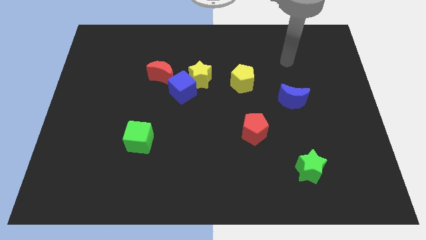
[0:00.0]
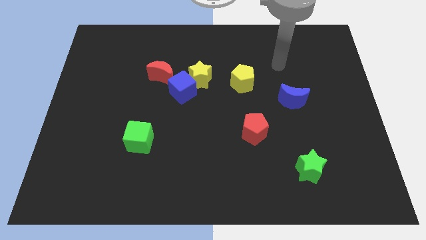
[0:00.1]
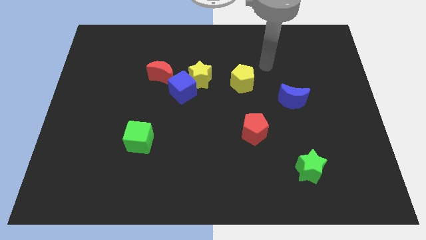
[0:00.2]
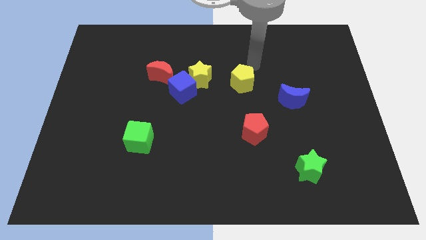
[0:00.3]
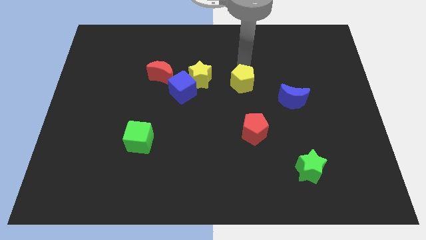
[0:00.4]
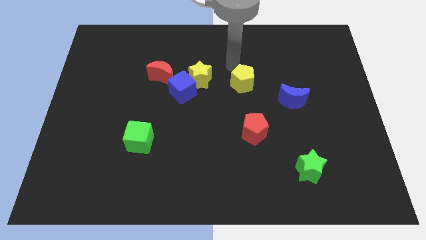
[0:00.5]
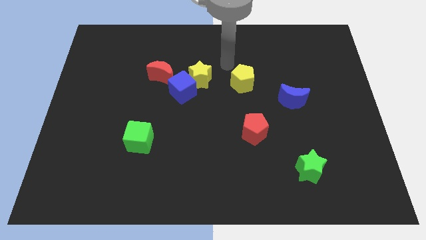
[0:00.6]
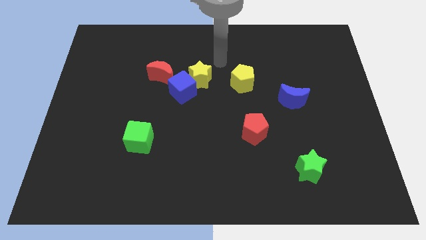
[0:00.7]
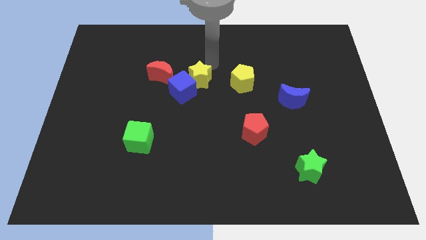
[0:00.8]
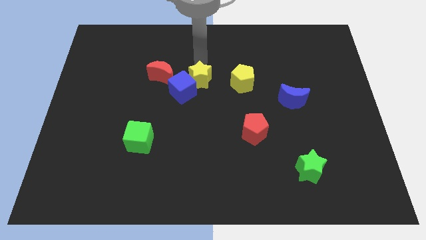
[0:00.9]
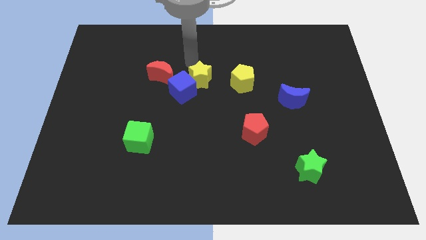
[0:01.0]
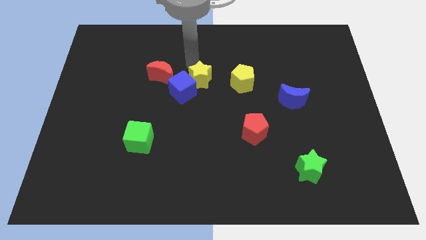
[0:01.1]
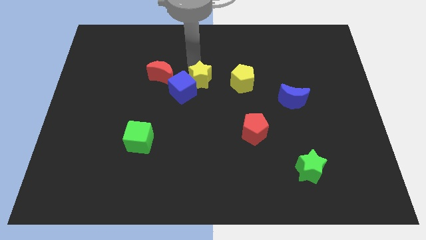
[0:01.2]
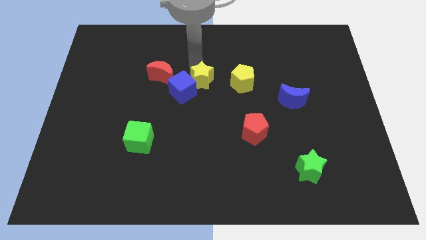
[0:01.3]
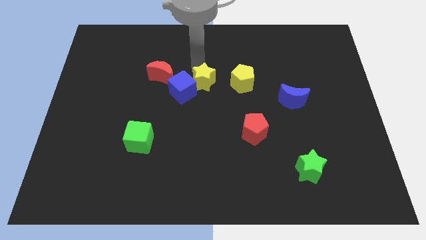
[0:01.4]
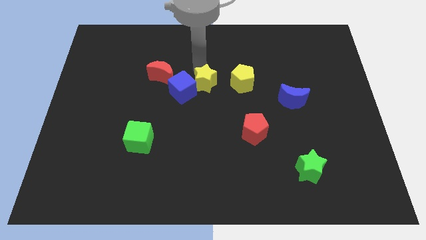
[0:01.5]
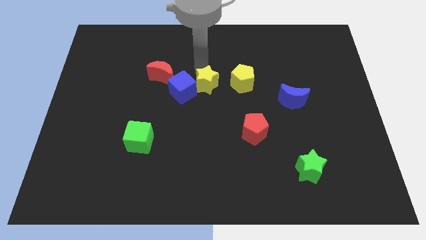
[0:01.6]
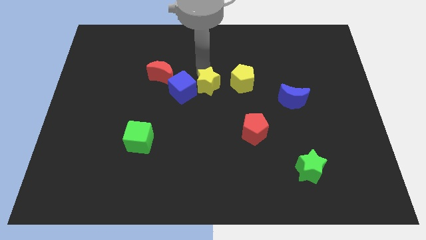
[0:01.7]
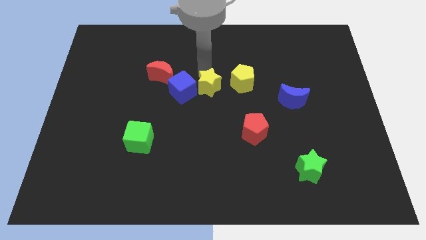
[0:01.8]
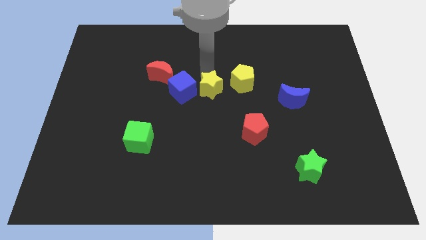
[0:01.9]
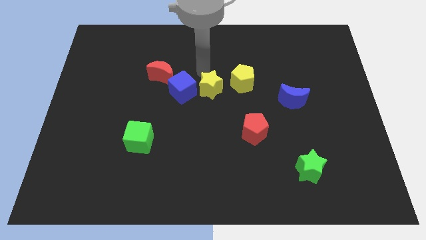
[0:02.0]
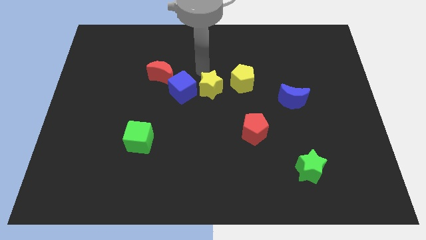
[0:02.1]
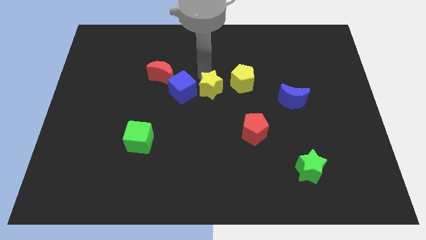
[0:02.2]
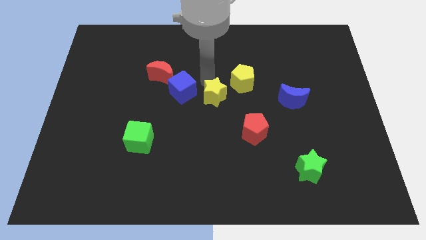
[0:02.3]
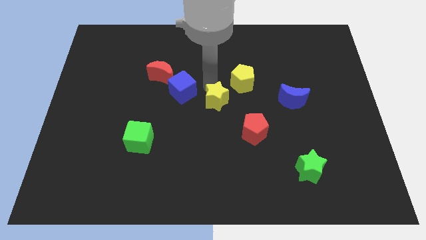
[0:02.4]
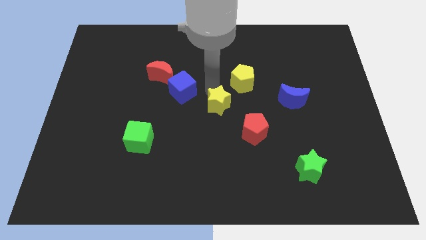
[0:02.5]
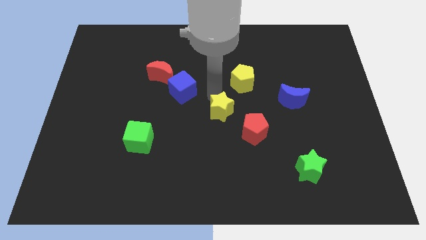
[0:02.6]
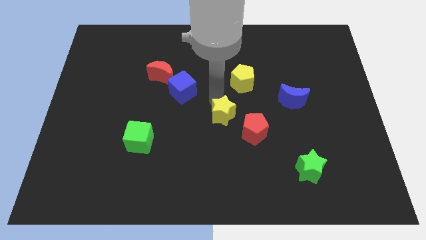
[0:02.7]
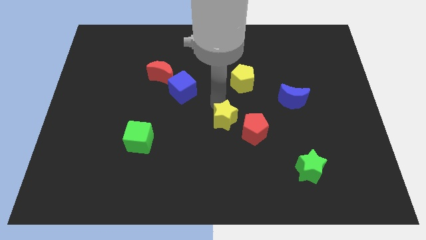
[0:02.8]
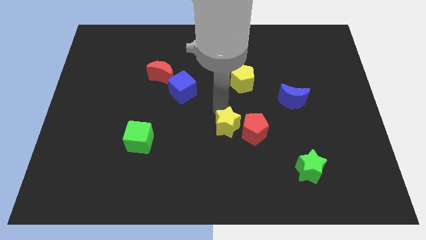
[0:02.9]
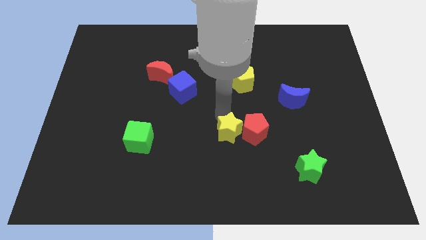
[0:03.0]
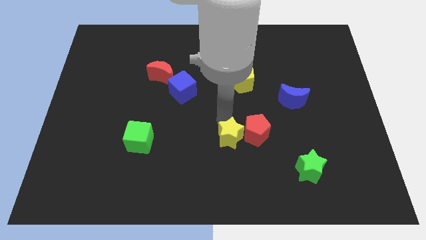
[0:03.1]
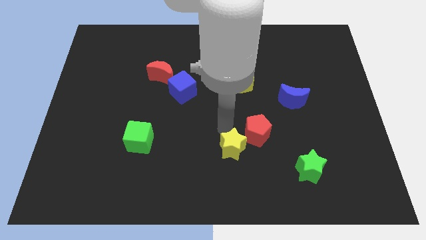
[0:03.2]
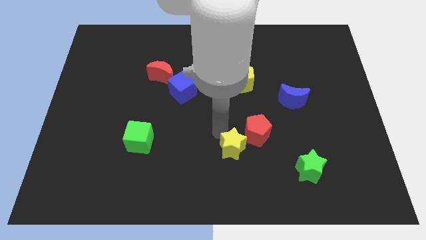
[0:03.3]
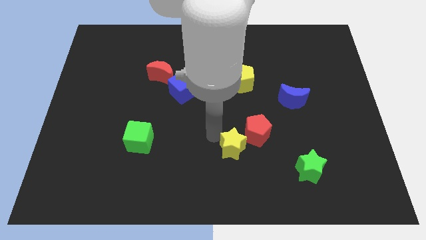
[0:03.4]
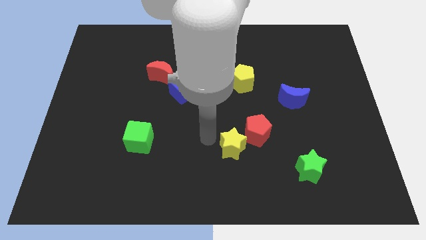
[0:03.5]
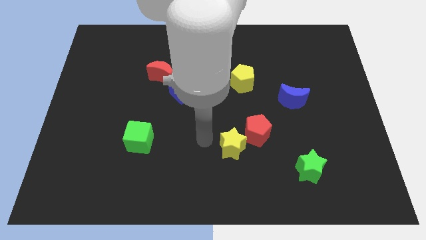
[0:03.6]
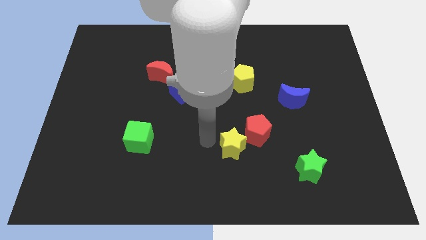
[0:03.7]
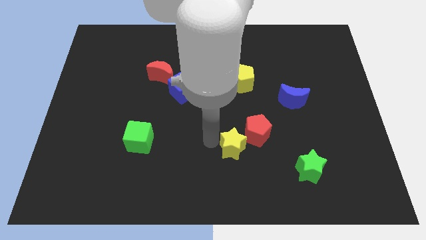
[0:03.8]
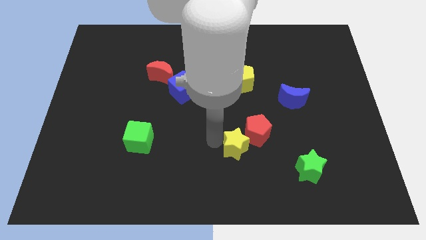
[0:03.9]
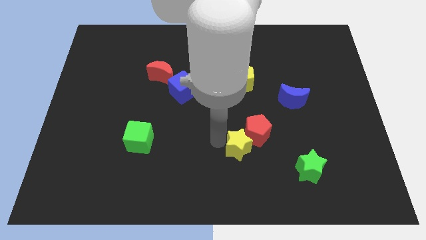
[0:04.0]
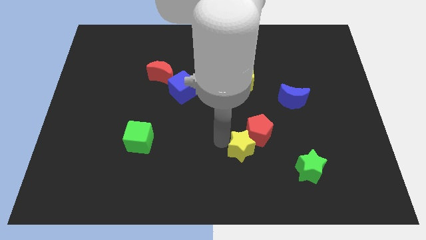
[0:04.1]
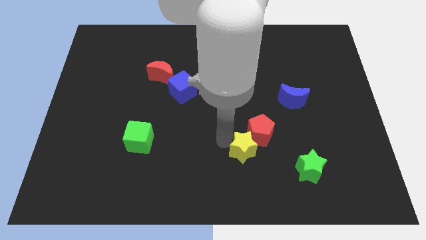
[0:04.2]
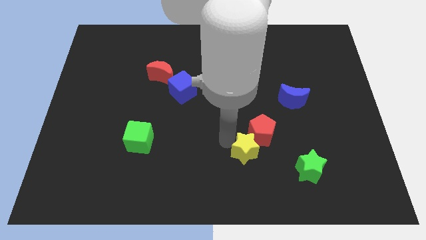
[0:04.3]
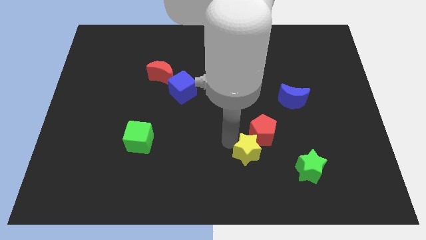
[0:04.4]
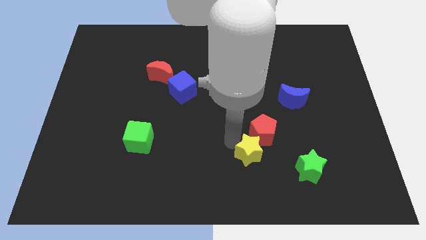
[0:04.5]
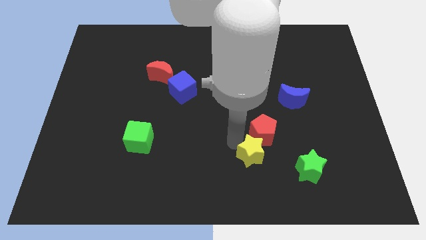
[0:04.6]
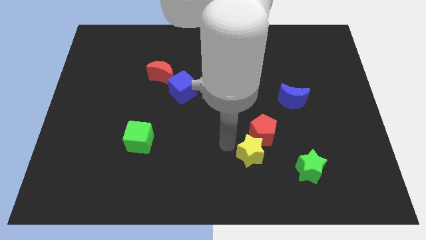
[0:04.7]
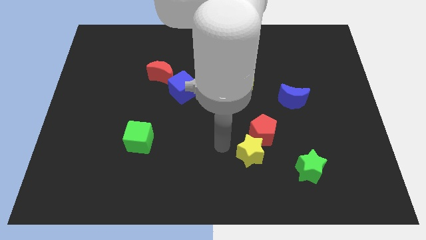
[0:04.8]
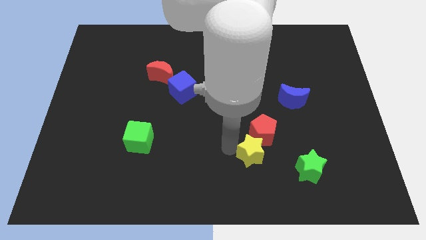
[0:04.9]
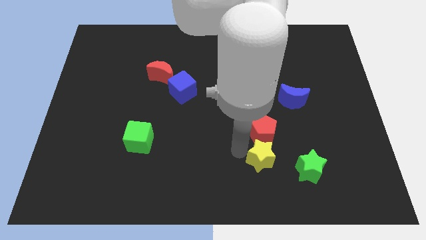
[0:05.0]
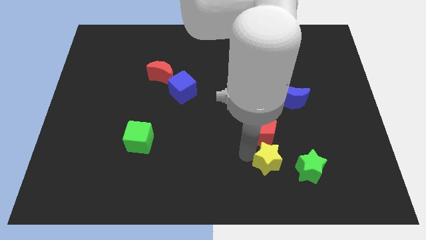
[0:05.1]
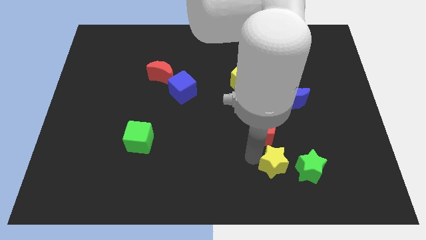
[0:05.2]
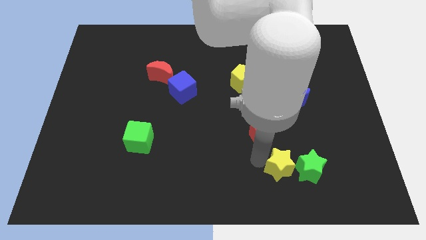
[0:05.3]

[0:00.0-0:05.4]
move the yellow star next to the green star

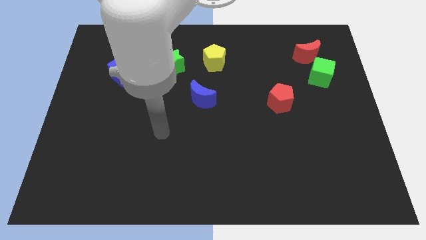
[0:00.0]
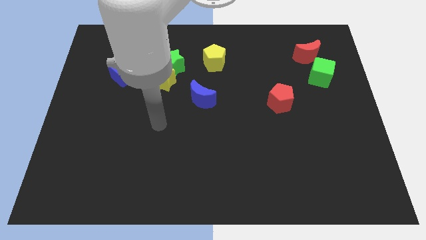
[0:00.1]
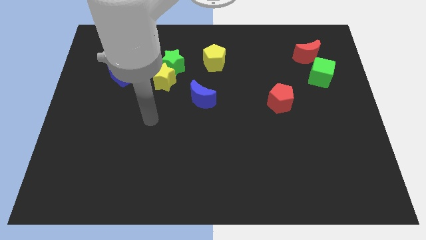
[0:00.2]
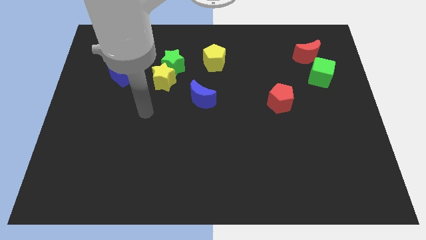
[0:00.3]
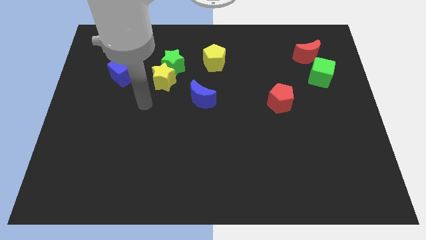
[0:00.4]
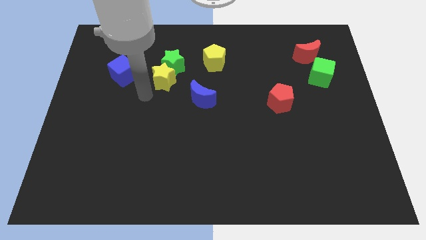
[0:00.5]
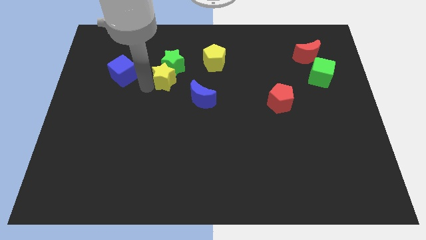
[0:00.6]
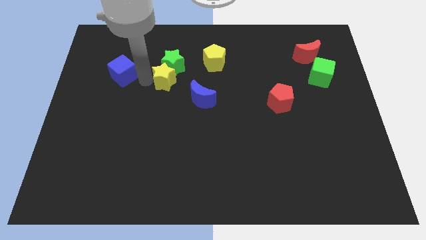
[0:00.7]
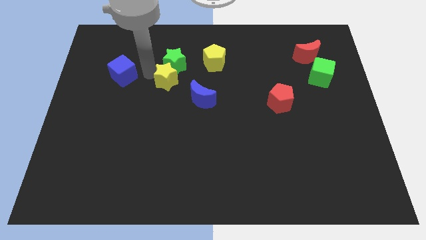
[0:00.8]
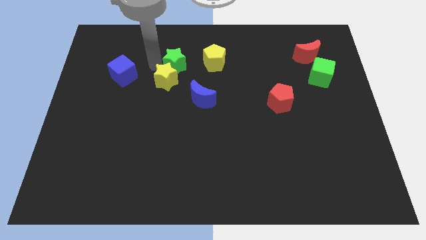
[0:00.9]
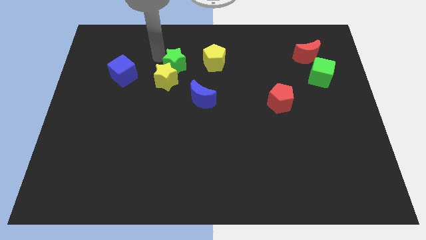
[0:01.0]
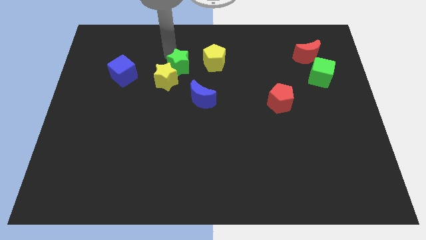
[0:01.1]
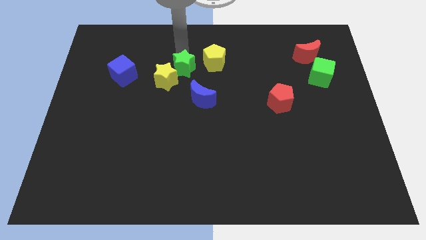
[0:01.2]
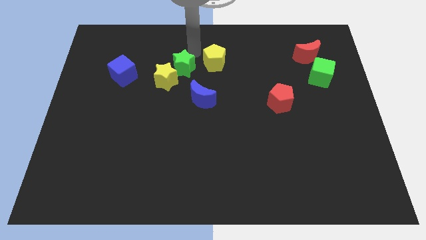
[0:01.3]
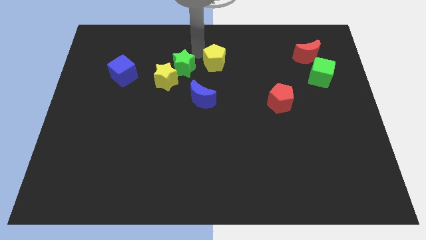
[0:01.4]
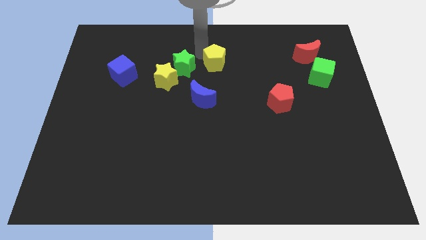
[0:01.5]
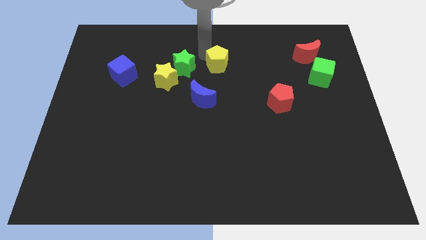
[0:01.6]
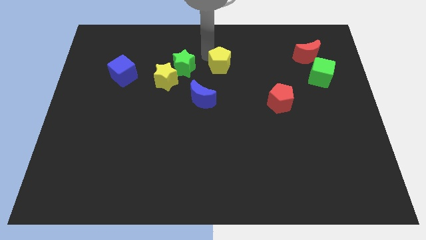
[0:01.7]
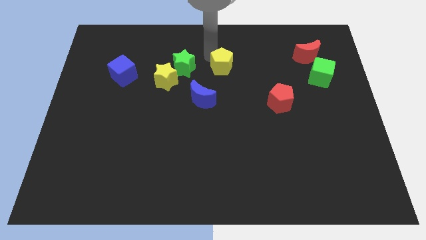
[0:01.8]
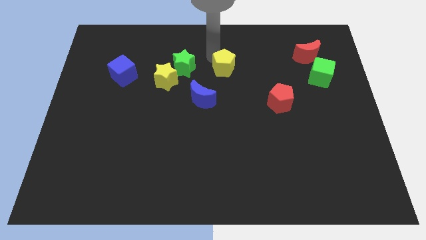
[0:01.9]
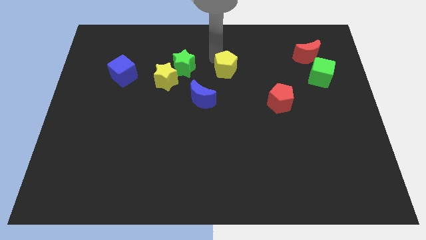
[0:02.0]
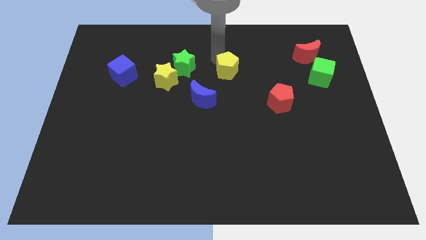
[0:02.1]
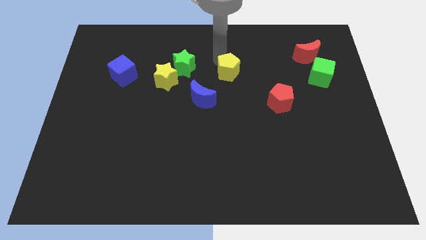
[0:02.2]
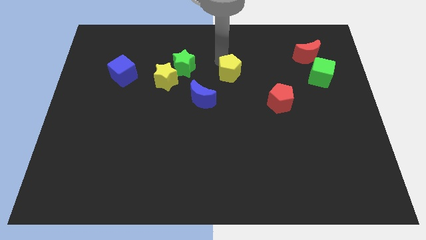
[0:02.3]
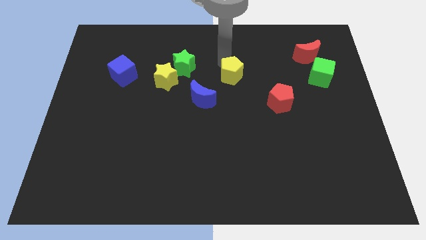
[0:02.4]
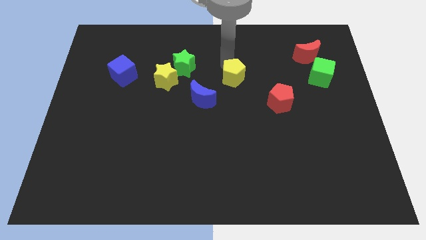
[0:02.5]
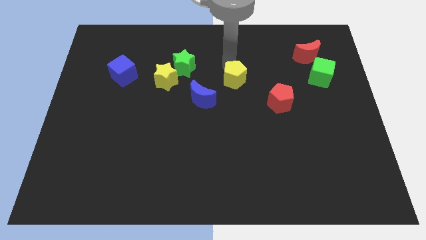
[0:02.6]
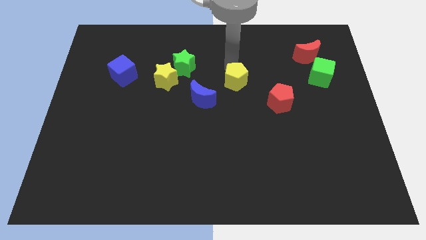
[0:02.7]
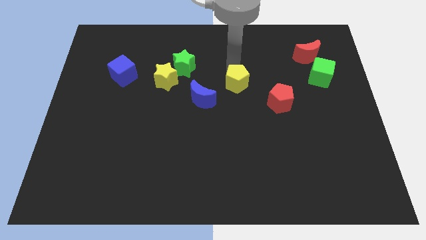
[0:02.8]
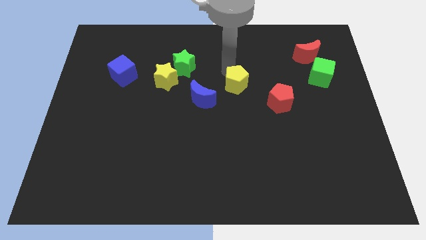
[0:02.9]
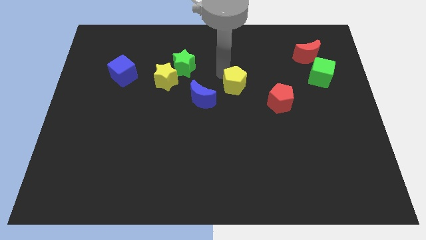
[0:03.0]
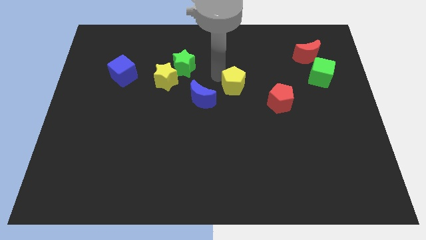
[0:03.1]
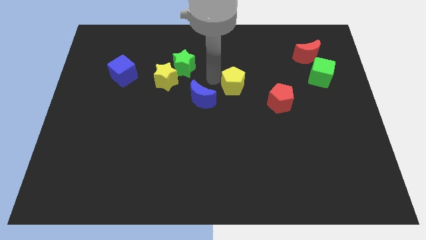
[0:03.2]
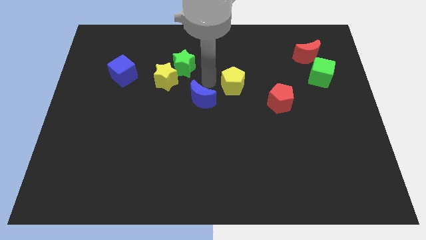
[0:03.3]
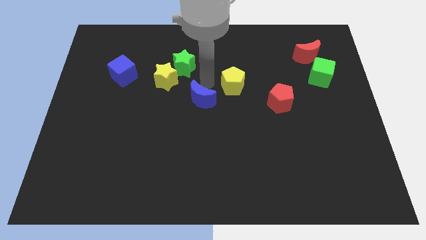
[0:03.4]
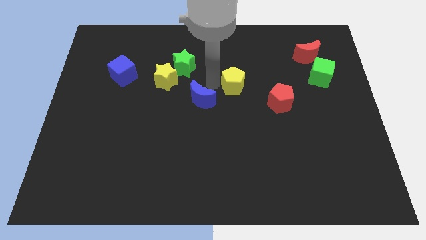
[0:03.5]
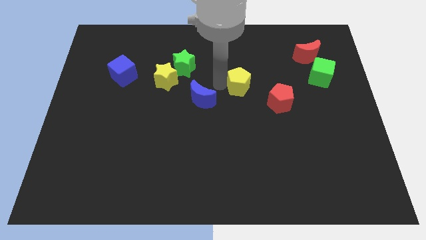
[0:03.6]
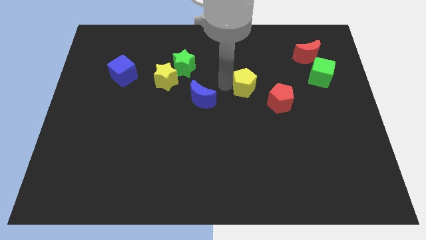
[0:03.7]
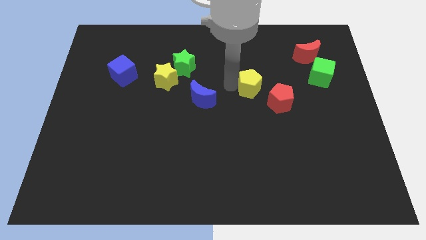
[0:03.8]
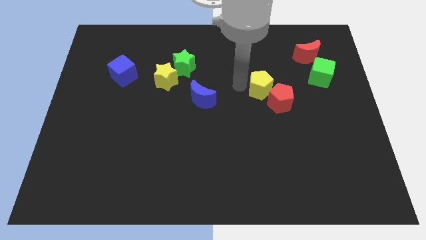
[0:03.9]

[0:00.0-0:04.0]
push the yellow pentagon to the red pentagon
